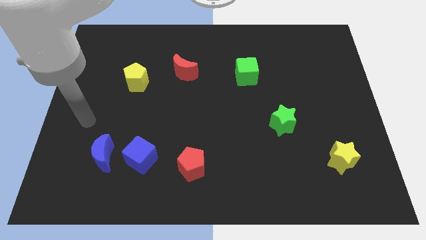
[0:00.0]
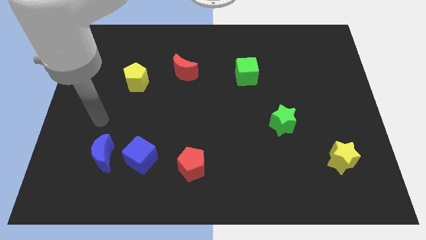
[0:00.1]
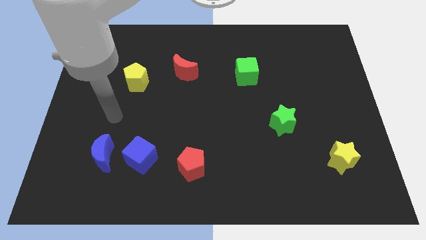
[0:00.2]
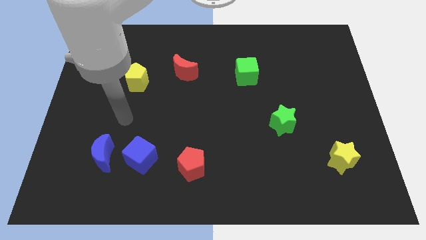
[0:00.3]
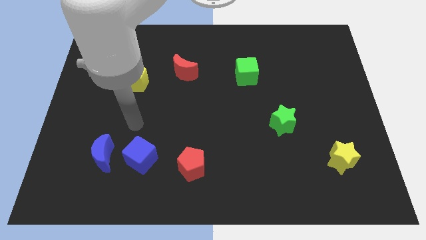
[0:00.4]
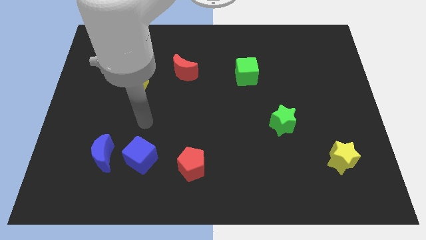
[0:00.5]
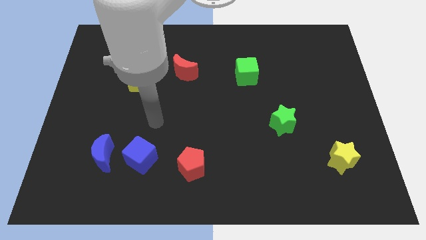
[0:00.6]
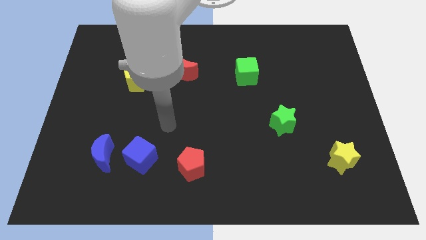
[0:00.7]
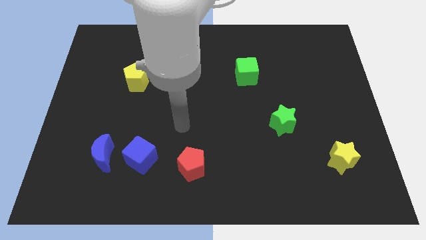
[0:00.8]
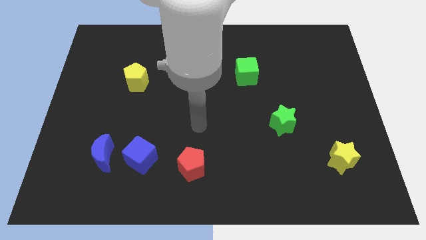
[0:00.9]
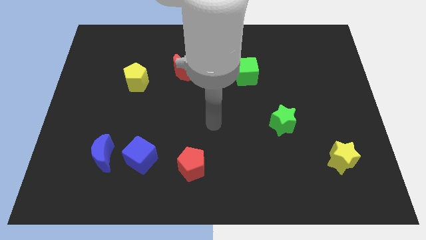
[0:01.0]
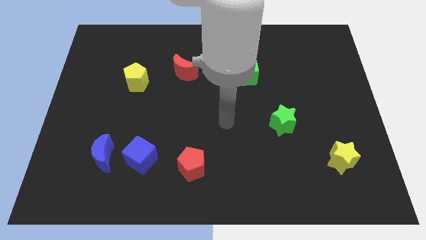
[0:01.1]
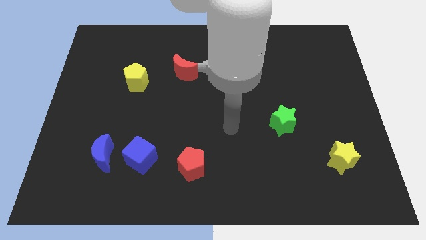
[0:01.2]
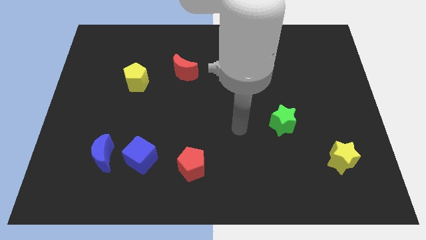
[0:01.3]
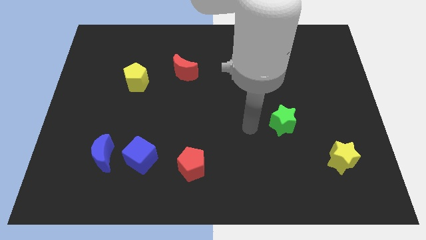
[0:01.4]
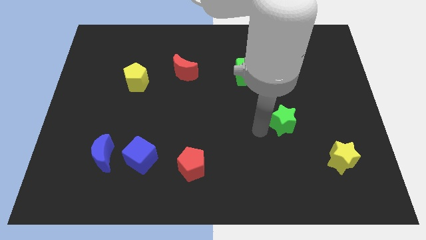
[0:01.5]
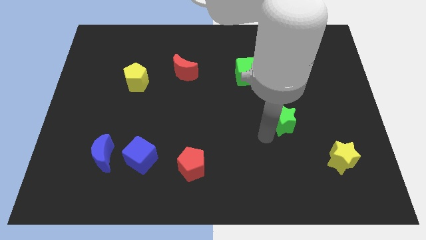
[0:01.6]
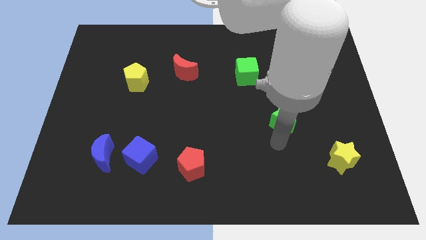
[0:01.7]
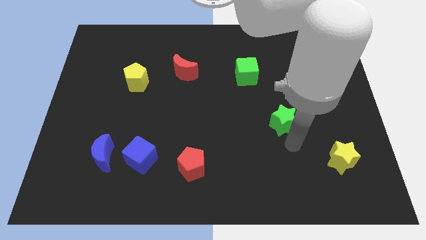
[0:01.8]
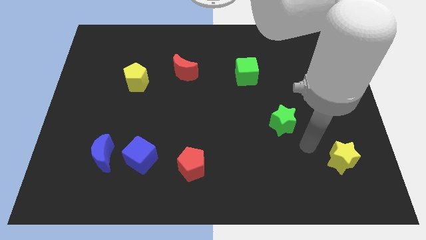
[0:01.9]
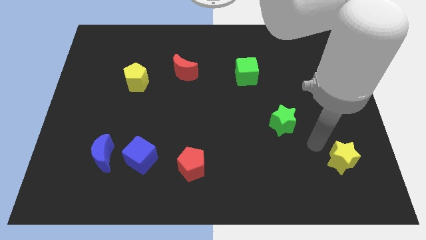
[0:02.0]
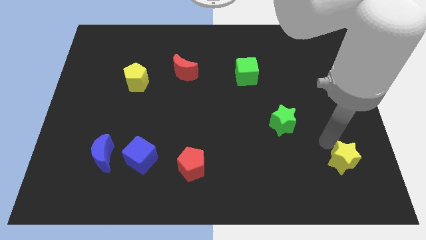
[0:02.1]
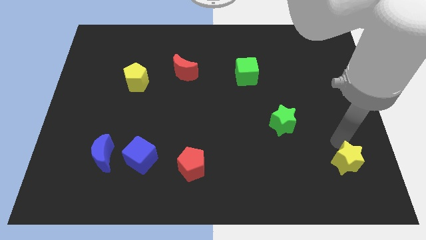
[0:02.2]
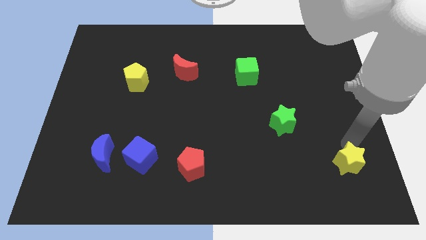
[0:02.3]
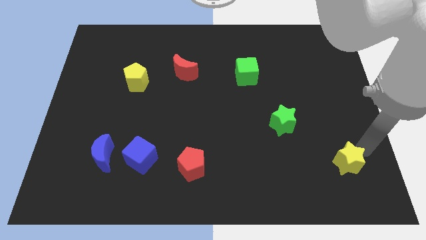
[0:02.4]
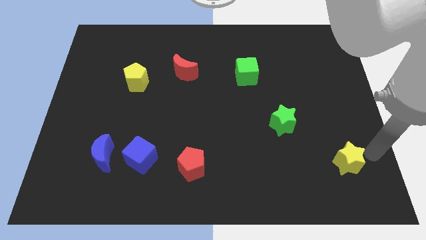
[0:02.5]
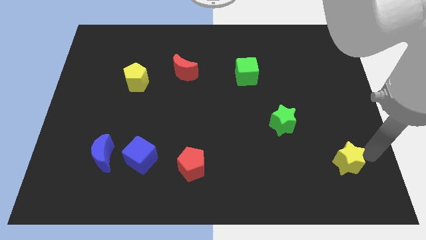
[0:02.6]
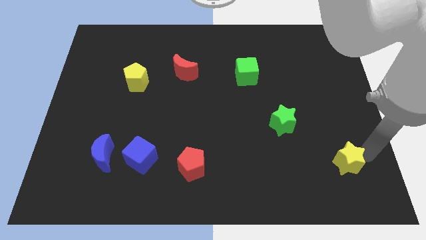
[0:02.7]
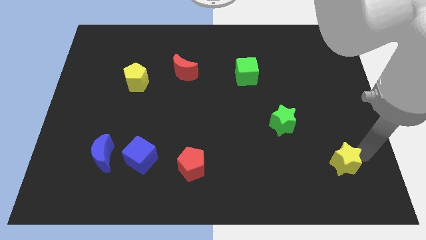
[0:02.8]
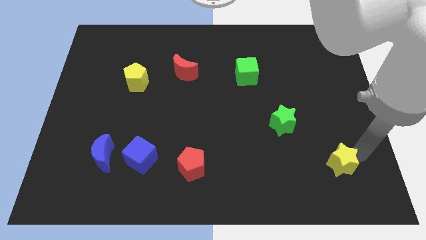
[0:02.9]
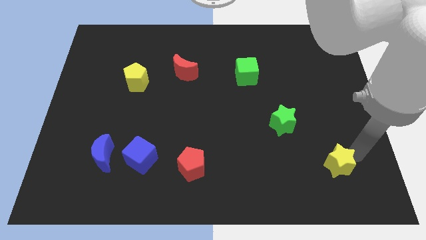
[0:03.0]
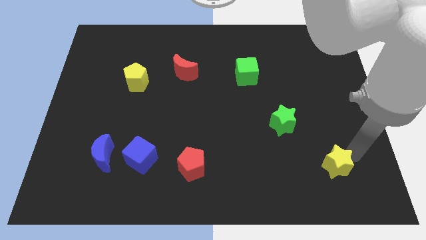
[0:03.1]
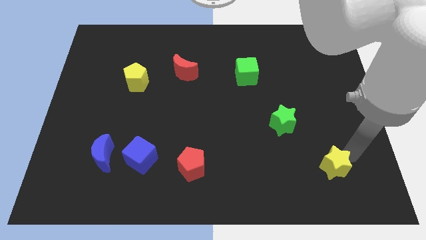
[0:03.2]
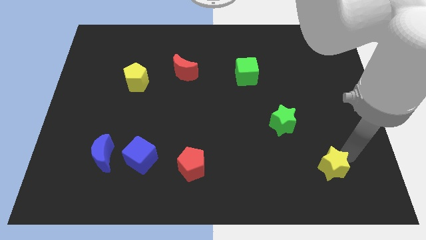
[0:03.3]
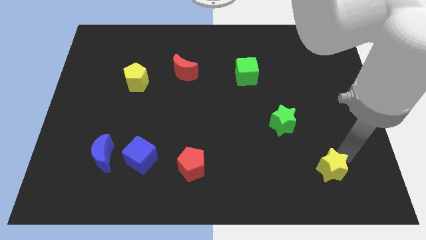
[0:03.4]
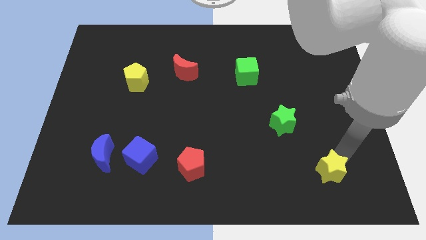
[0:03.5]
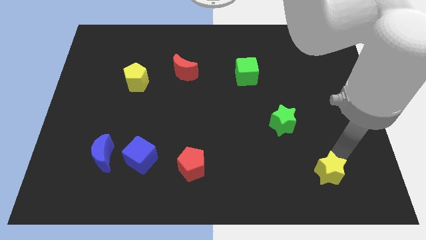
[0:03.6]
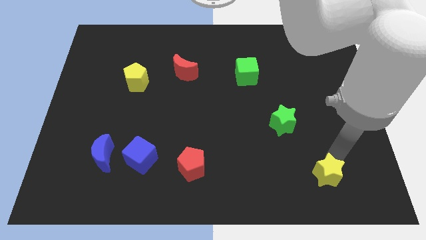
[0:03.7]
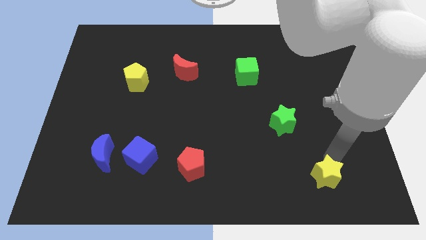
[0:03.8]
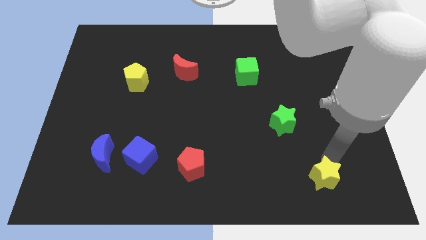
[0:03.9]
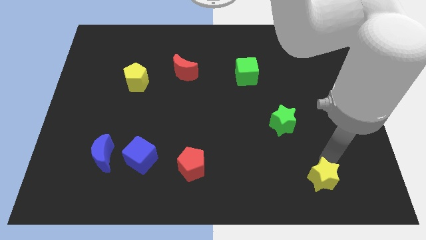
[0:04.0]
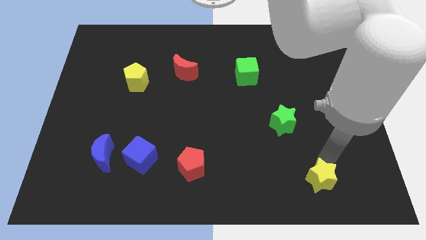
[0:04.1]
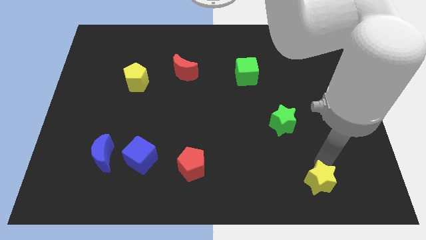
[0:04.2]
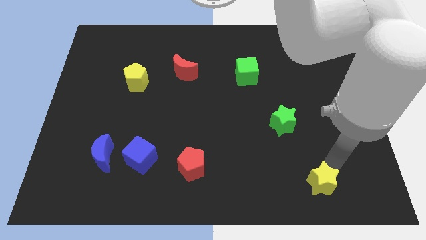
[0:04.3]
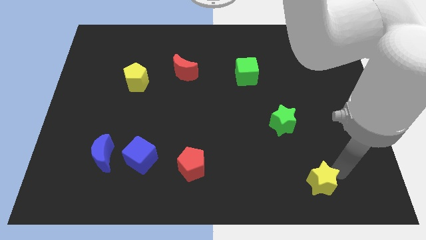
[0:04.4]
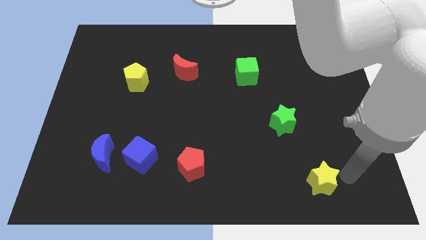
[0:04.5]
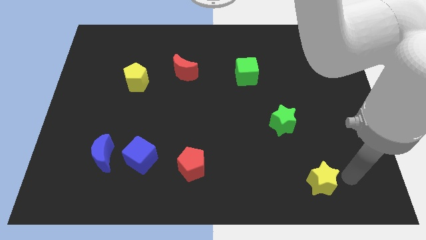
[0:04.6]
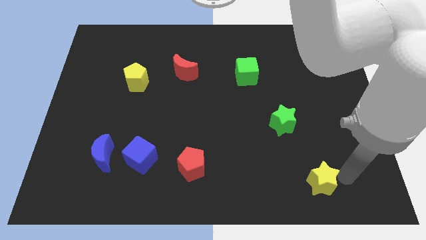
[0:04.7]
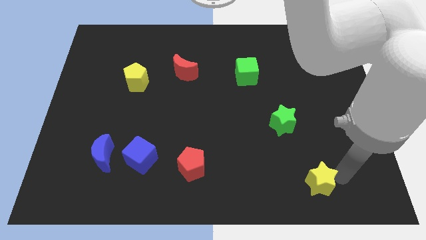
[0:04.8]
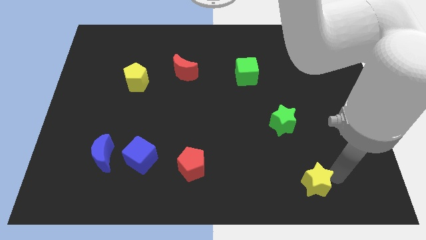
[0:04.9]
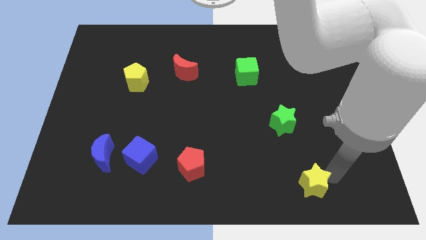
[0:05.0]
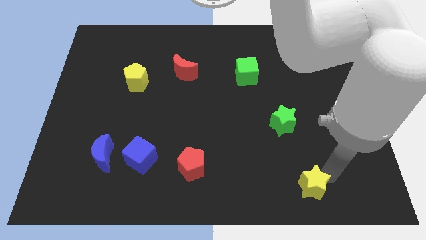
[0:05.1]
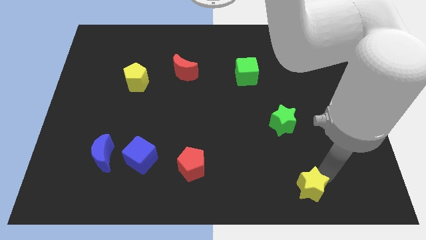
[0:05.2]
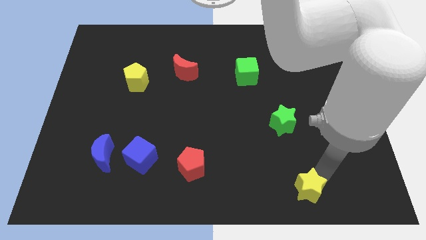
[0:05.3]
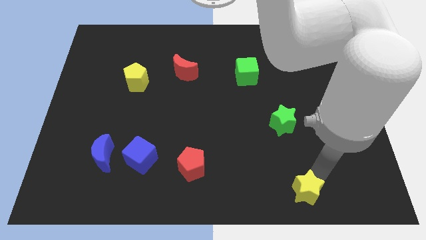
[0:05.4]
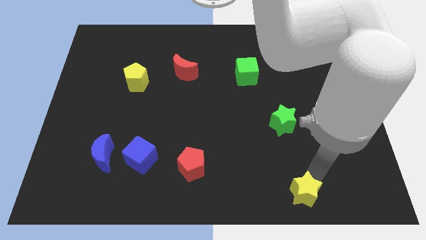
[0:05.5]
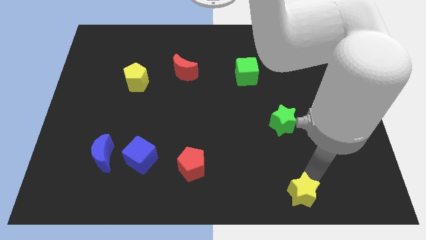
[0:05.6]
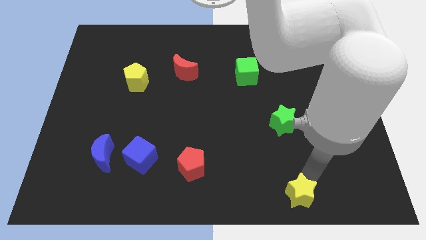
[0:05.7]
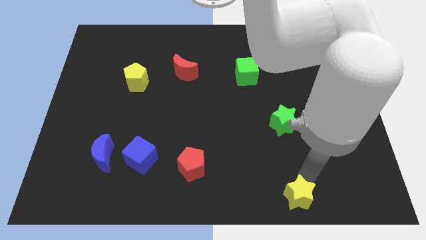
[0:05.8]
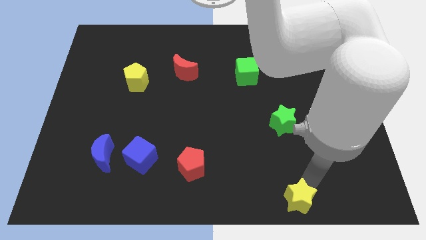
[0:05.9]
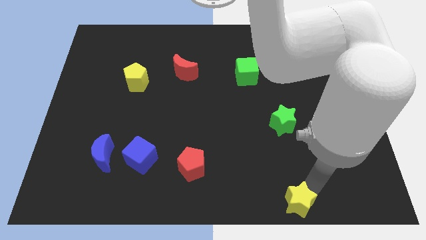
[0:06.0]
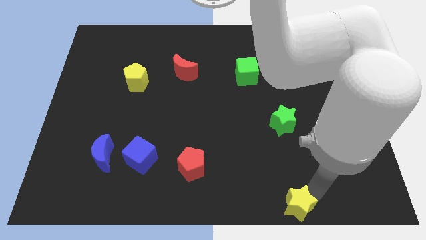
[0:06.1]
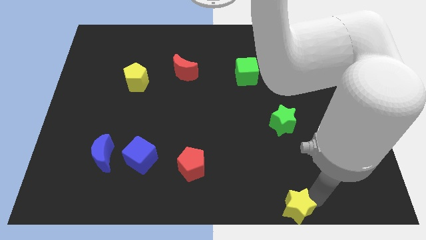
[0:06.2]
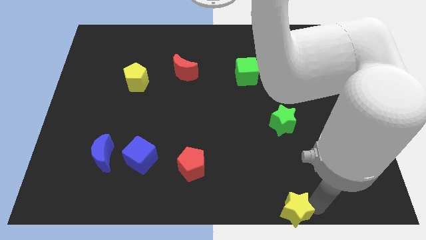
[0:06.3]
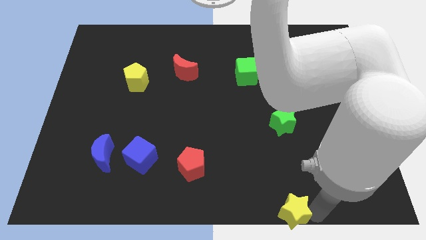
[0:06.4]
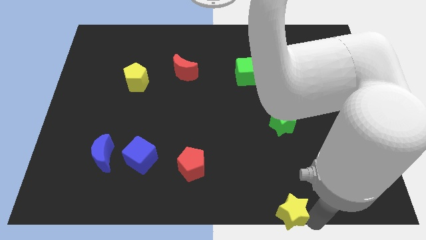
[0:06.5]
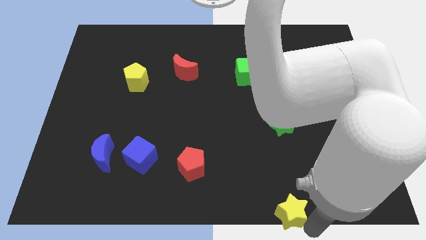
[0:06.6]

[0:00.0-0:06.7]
put the yellow star to the bottom
